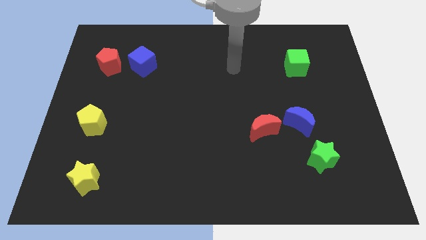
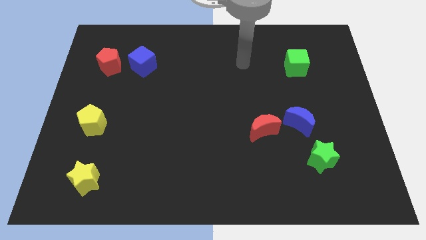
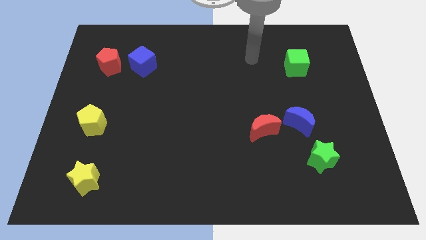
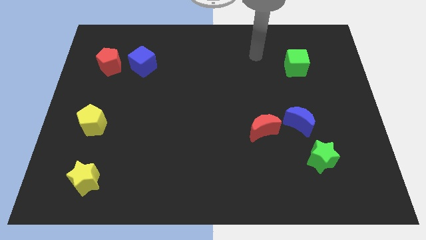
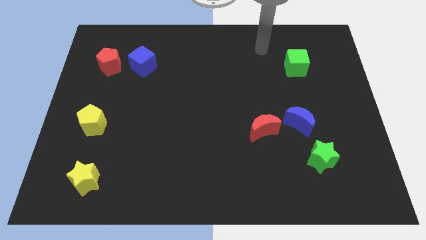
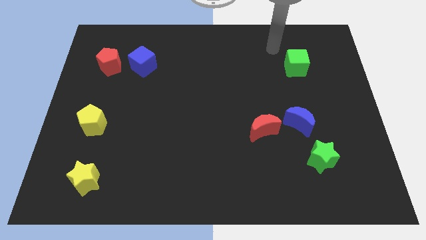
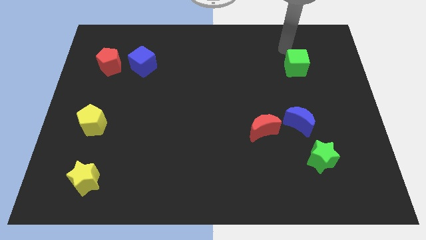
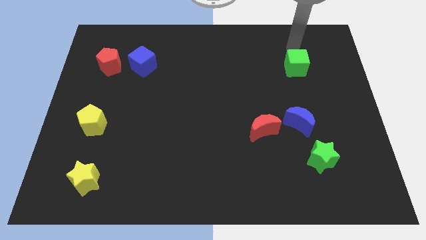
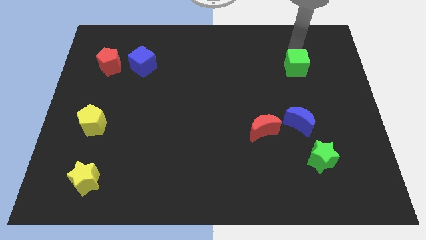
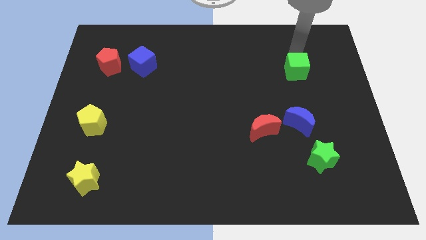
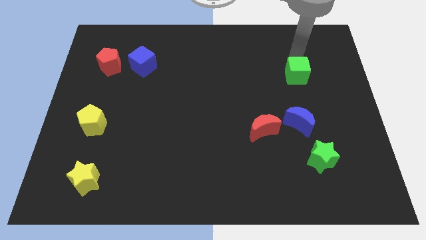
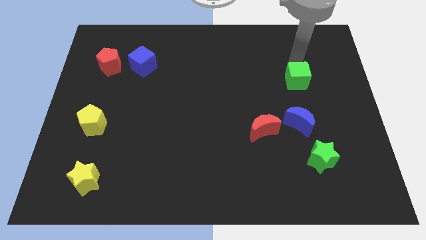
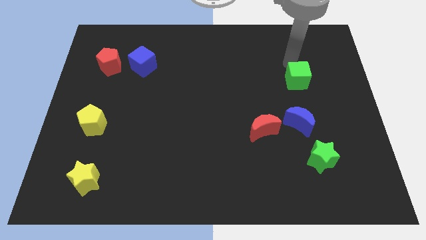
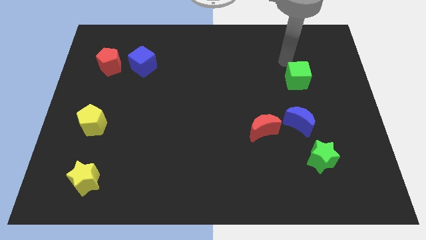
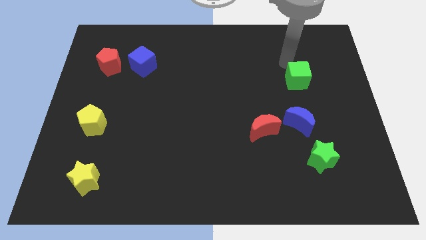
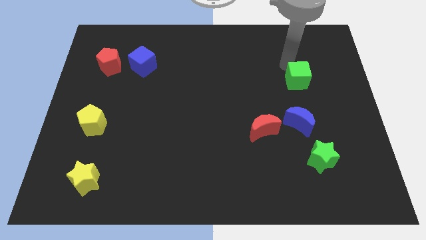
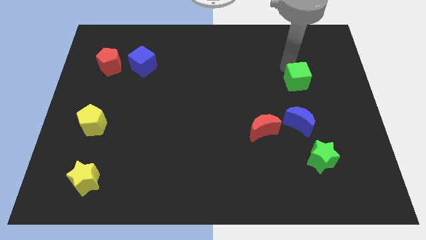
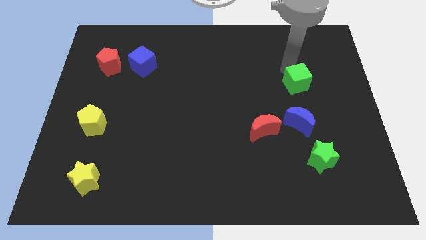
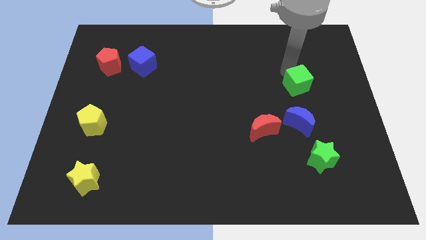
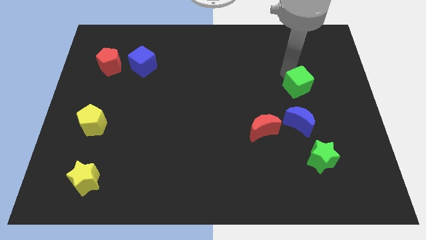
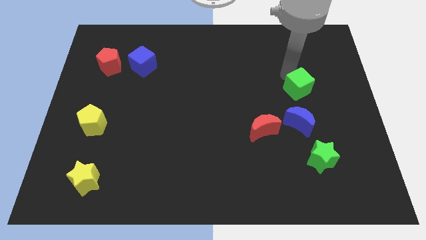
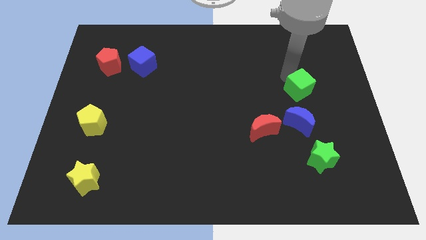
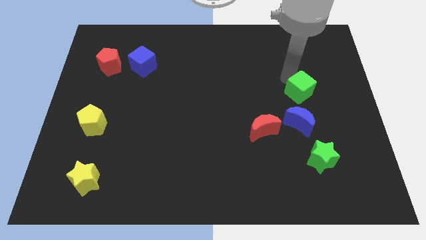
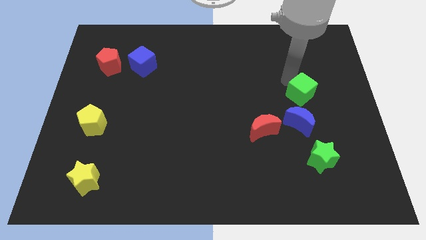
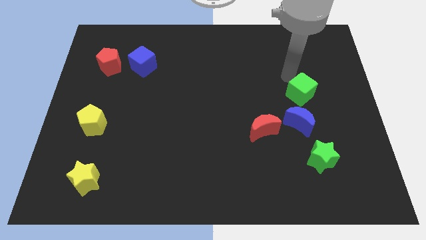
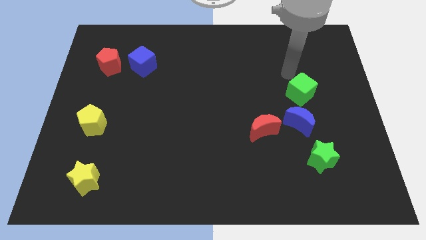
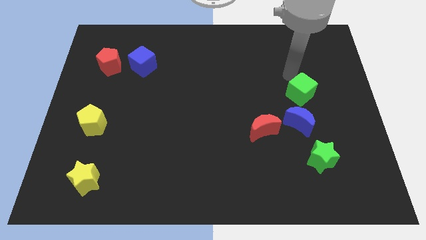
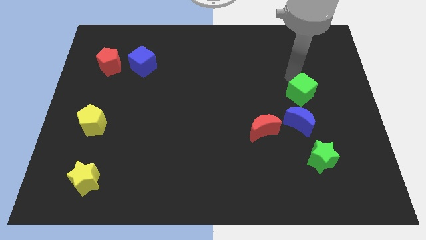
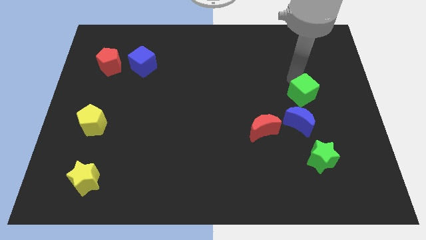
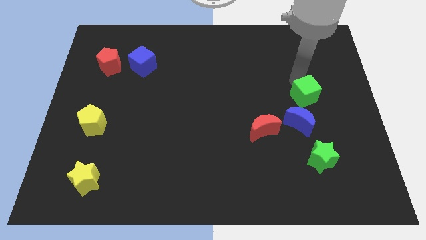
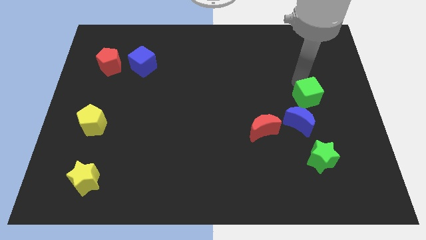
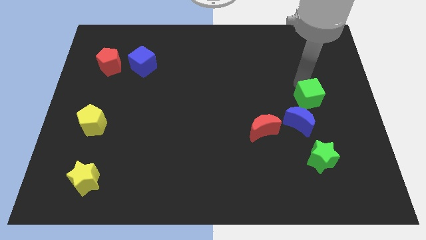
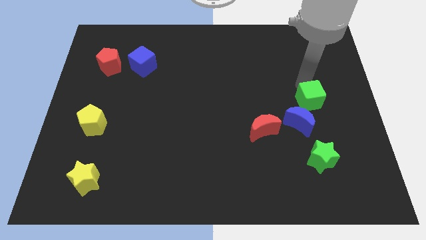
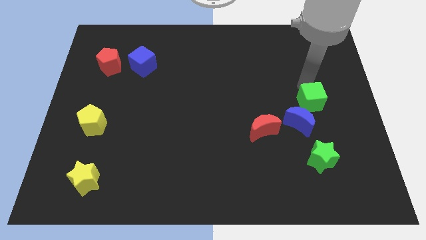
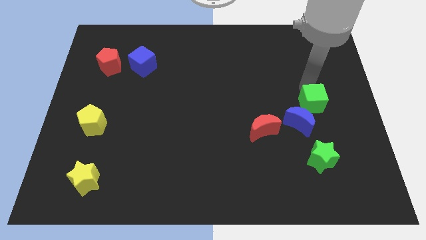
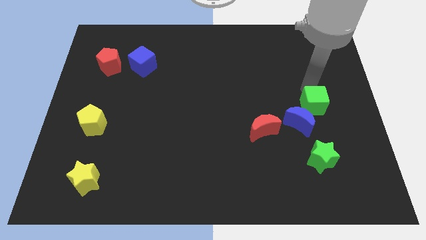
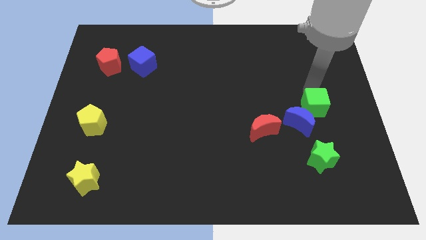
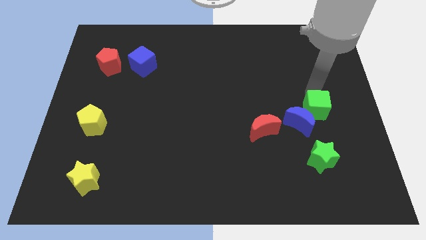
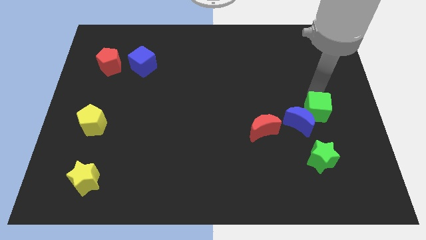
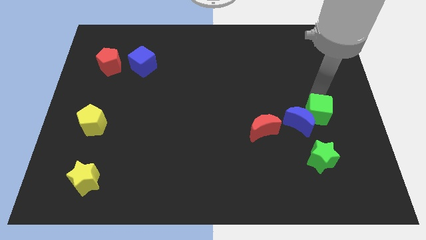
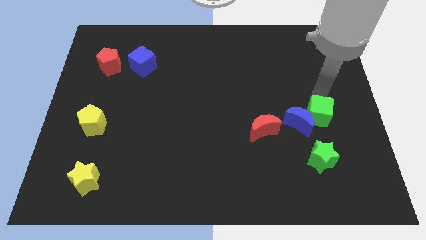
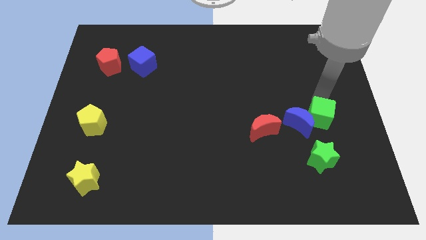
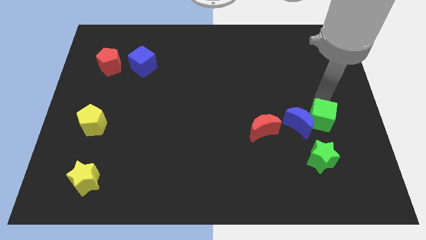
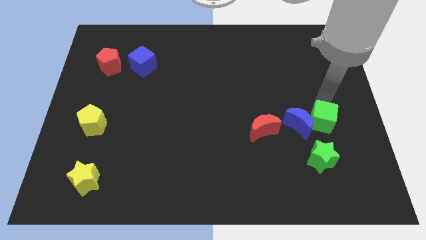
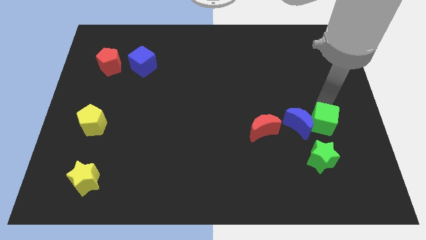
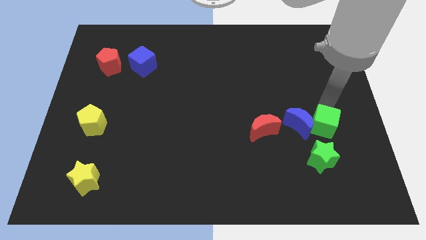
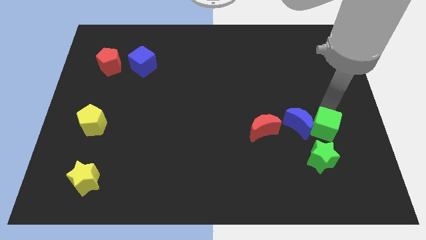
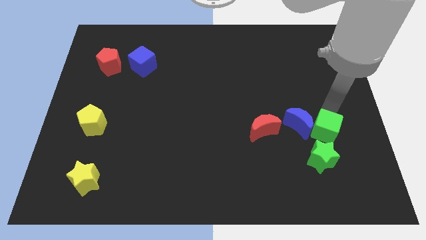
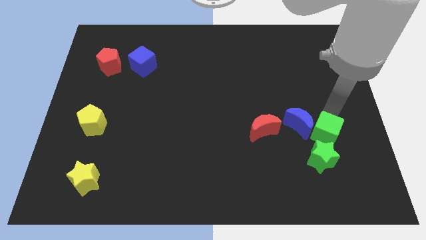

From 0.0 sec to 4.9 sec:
slide the green cube down

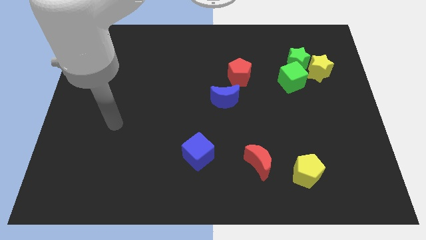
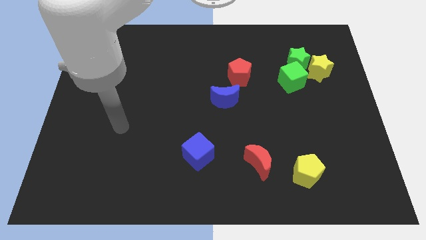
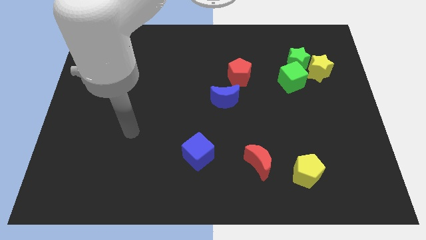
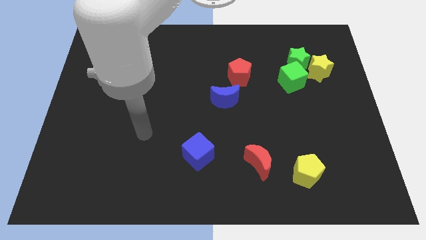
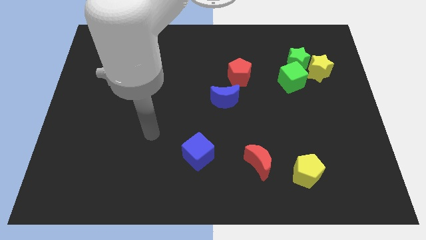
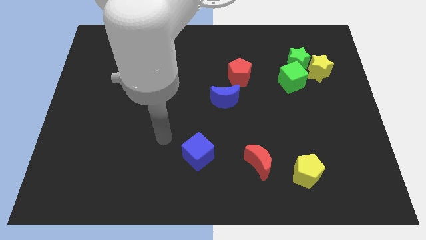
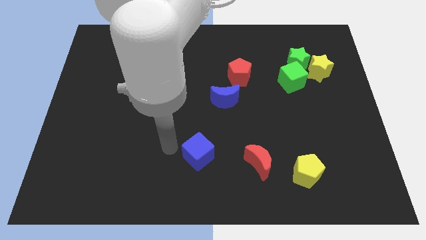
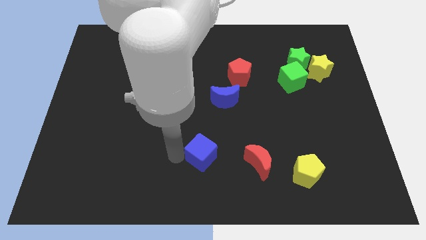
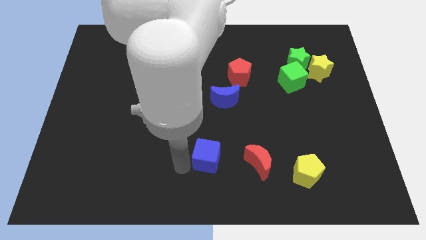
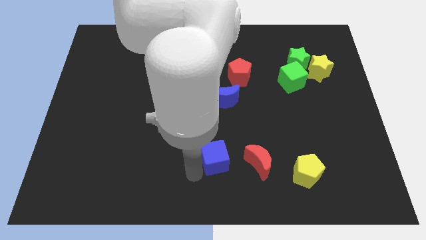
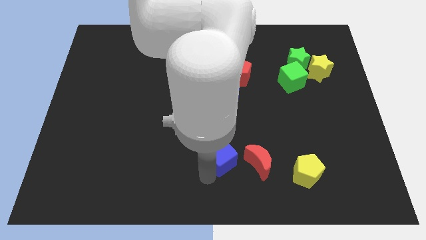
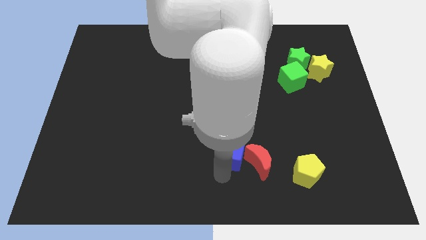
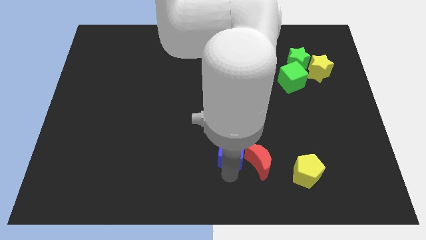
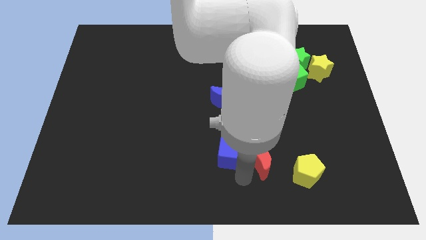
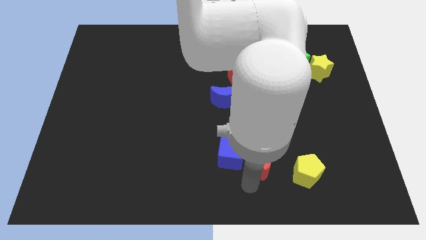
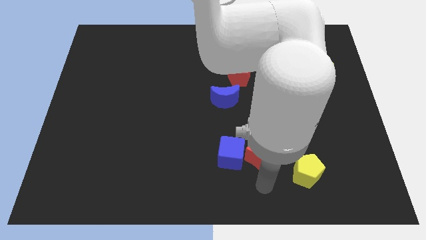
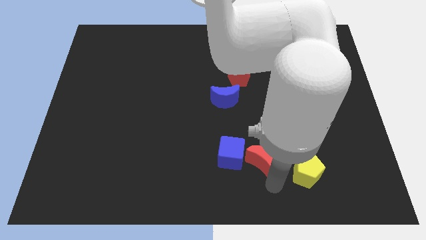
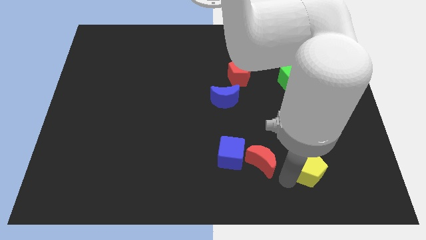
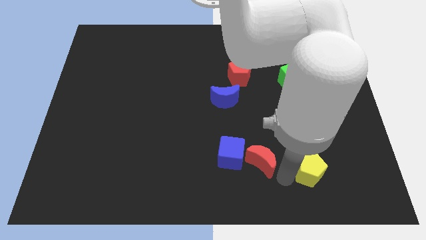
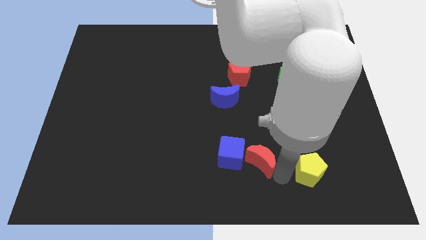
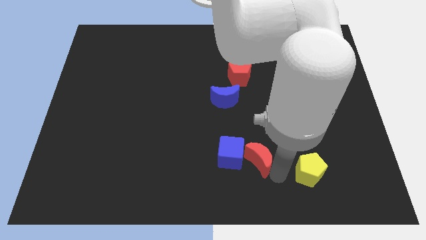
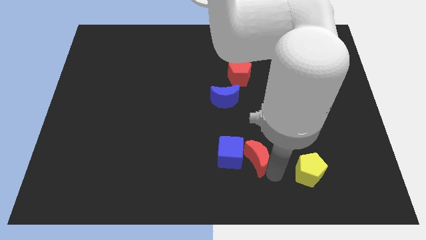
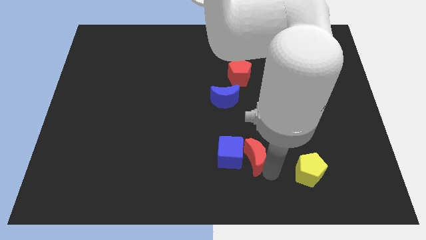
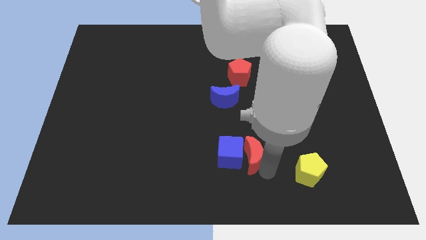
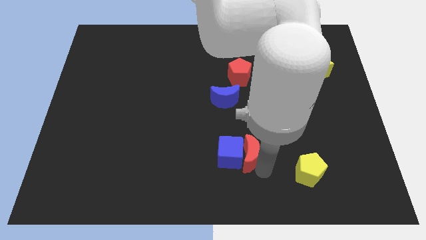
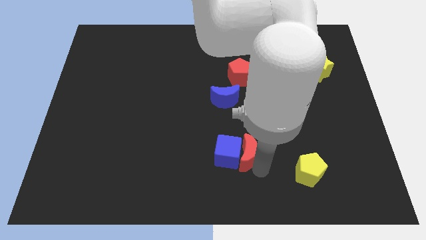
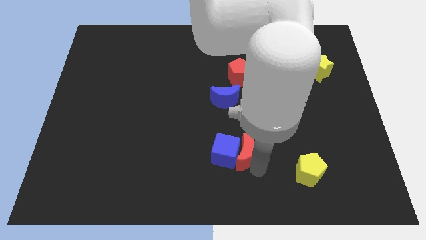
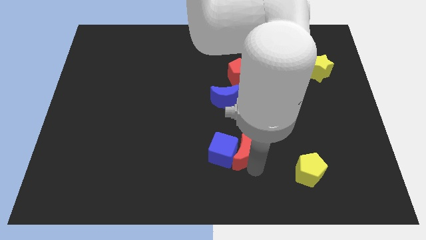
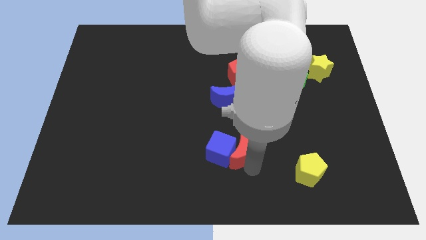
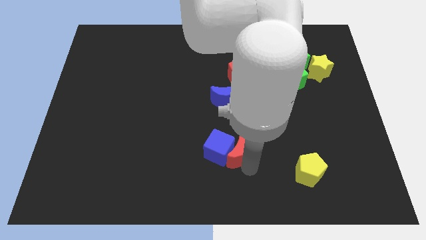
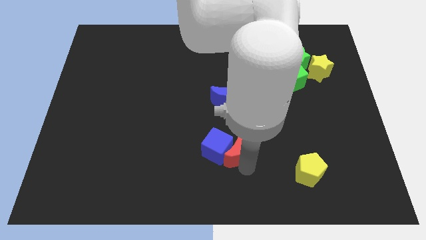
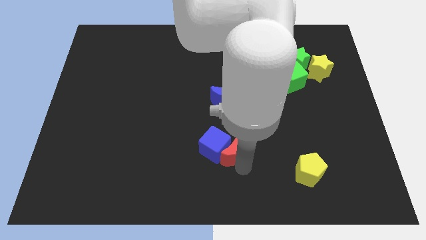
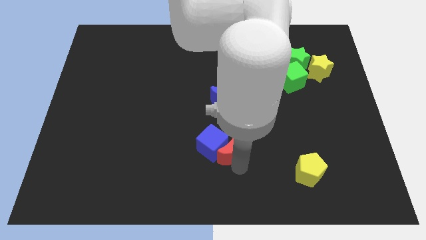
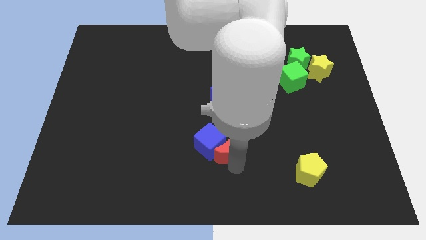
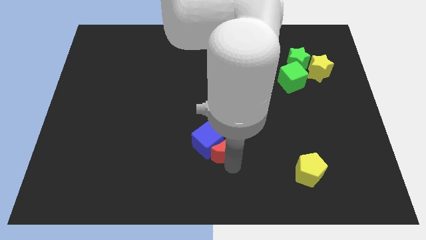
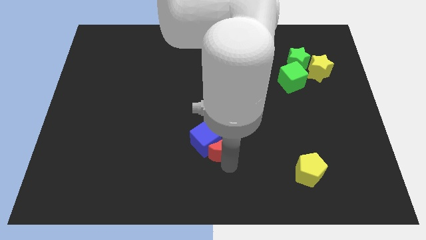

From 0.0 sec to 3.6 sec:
slightly push the red moon upwards and then left
